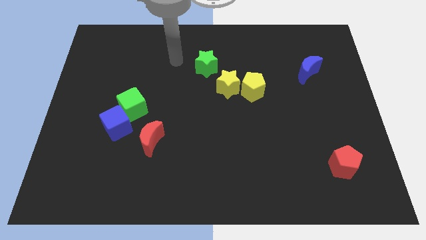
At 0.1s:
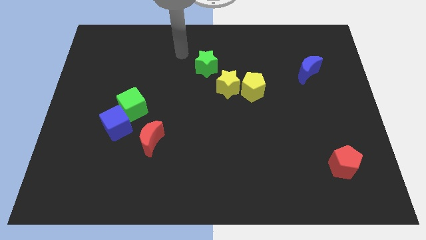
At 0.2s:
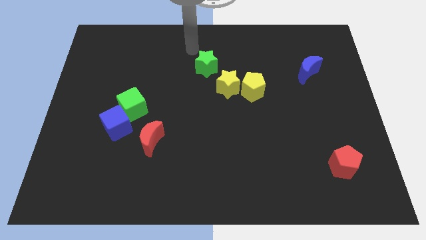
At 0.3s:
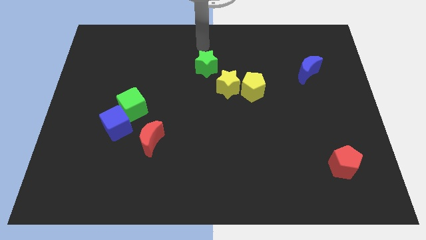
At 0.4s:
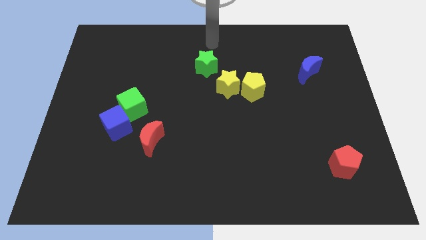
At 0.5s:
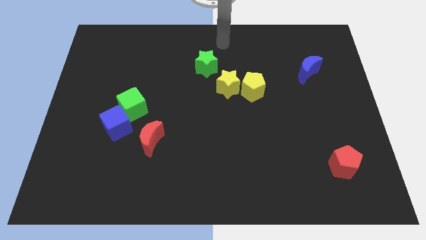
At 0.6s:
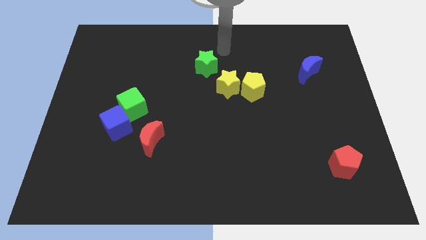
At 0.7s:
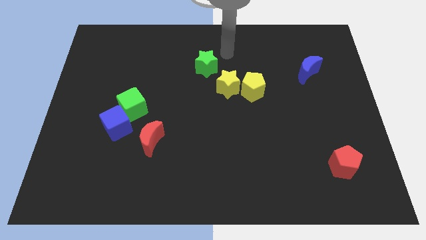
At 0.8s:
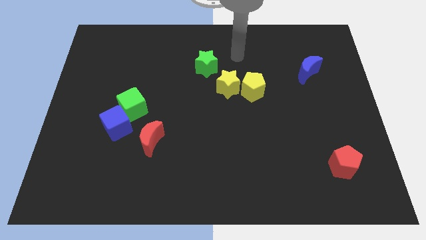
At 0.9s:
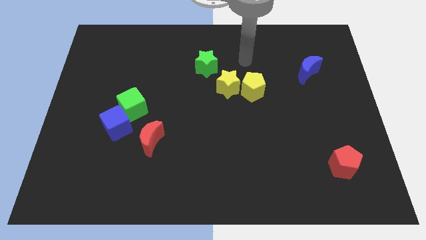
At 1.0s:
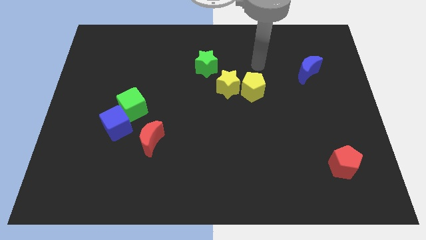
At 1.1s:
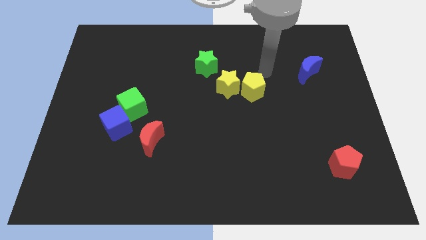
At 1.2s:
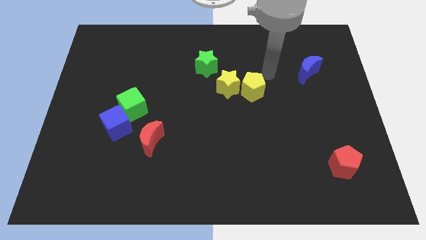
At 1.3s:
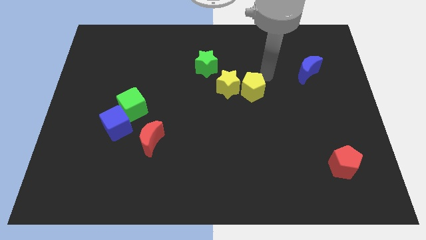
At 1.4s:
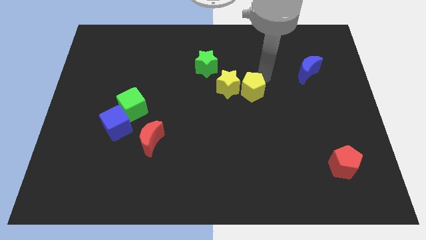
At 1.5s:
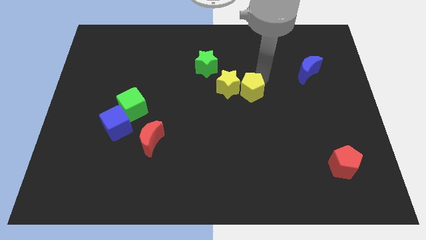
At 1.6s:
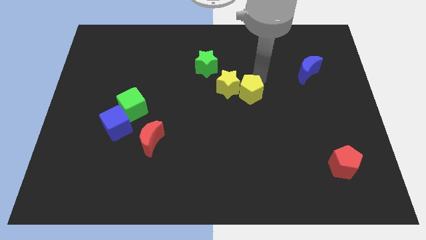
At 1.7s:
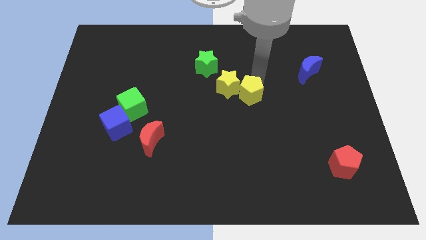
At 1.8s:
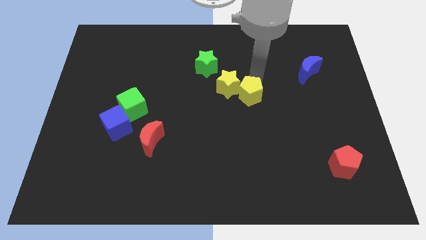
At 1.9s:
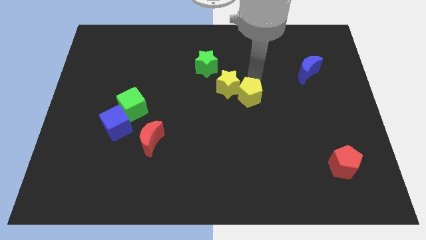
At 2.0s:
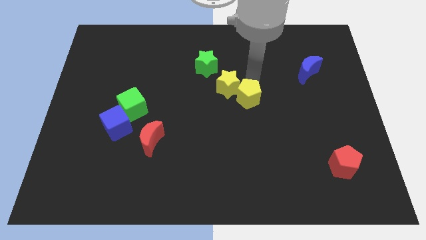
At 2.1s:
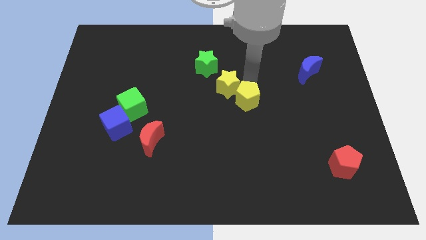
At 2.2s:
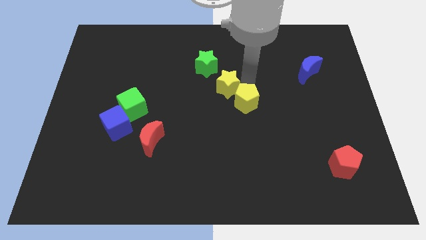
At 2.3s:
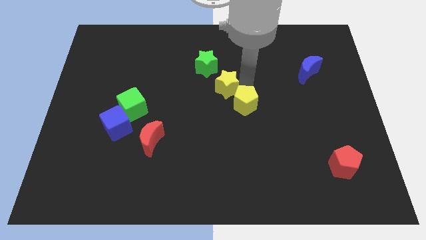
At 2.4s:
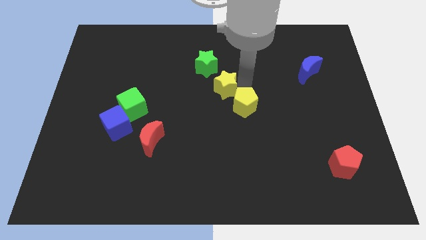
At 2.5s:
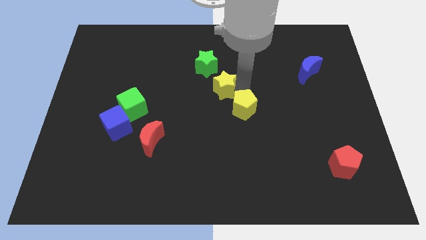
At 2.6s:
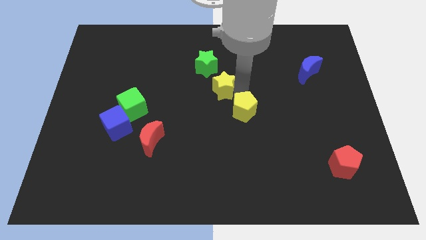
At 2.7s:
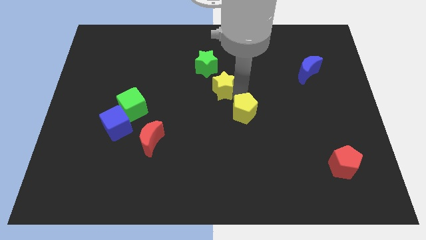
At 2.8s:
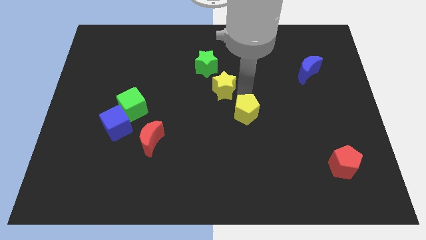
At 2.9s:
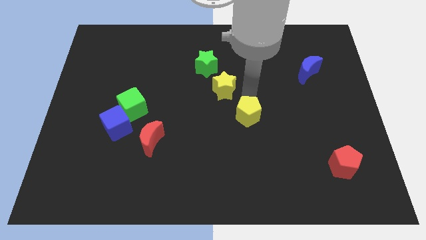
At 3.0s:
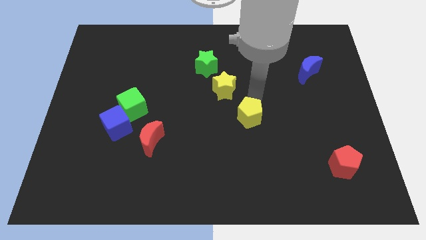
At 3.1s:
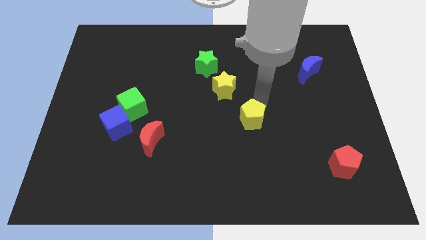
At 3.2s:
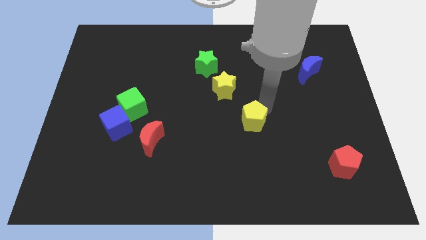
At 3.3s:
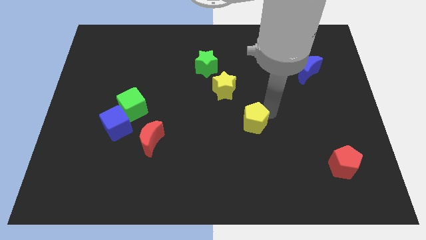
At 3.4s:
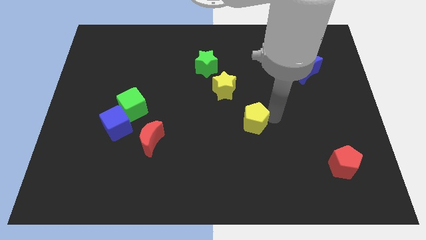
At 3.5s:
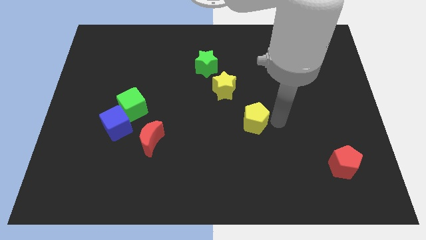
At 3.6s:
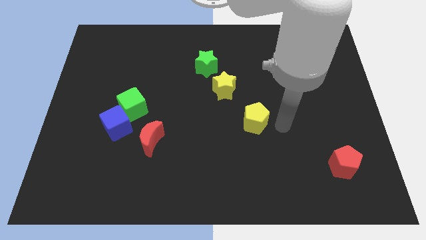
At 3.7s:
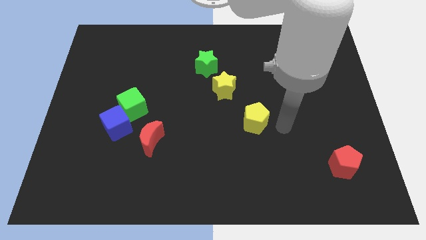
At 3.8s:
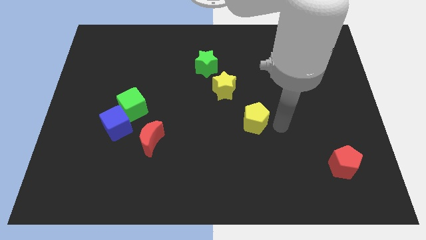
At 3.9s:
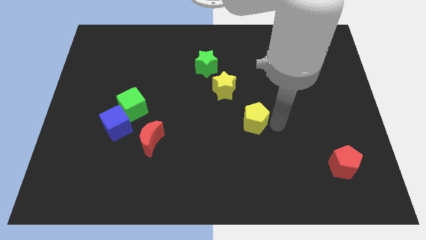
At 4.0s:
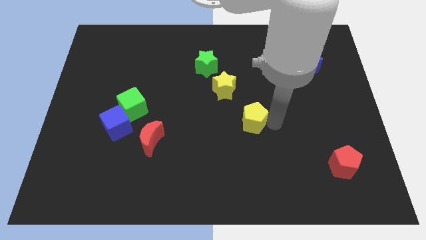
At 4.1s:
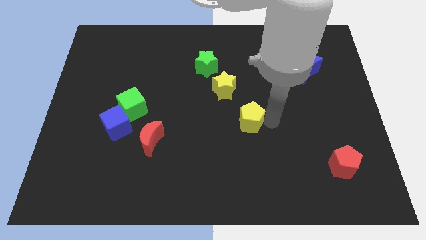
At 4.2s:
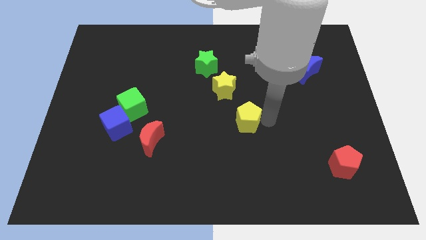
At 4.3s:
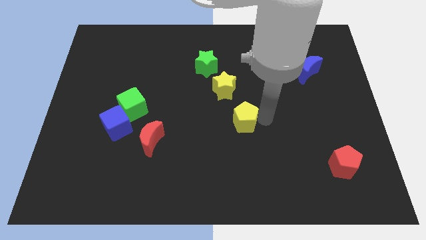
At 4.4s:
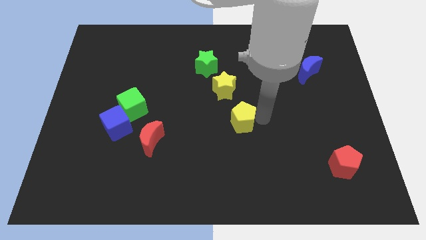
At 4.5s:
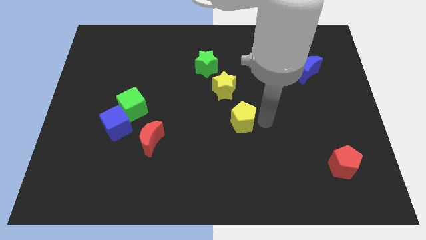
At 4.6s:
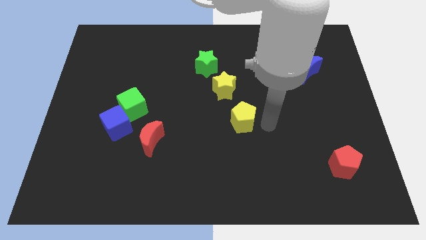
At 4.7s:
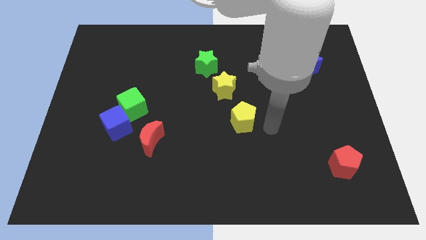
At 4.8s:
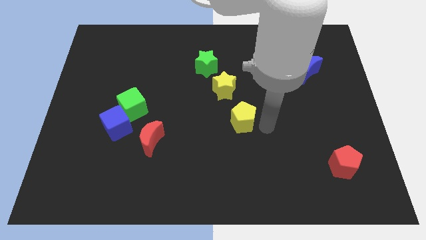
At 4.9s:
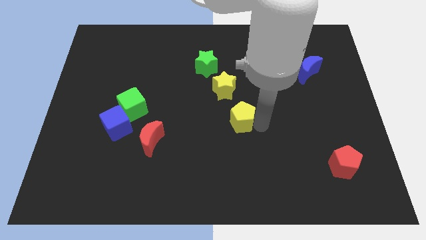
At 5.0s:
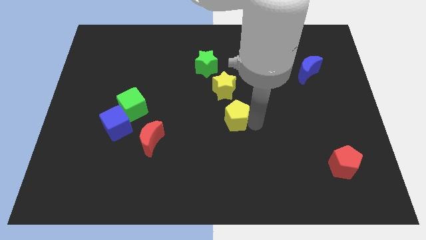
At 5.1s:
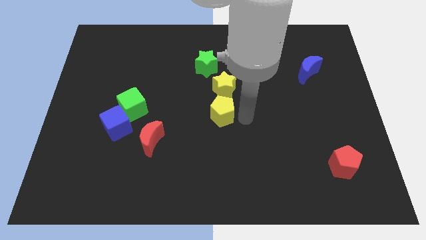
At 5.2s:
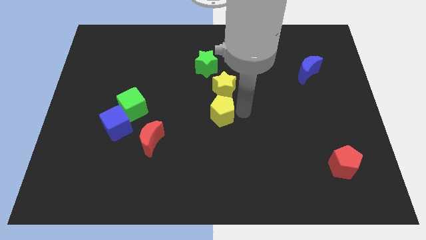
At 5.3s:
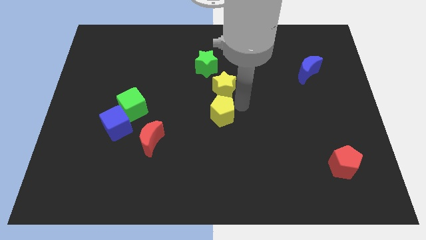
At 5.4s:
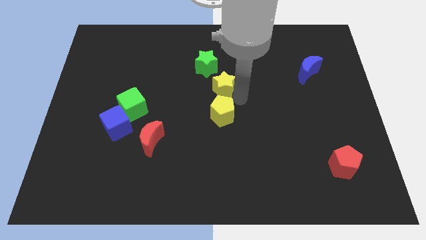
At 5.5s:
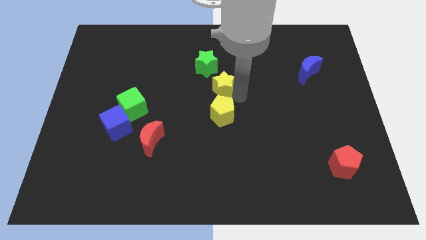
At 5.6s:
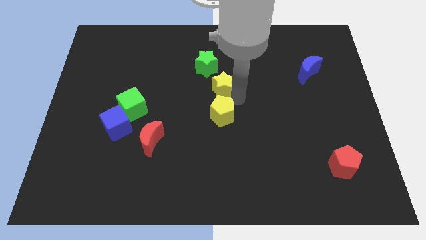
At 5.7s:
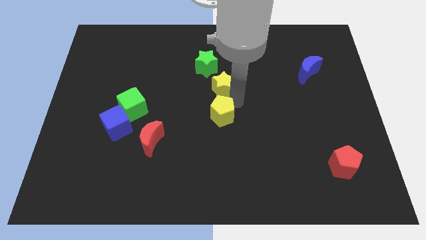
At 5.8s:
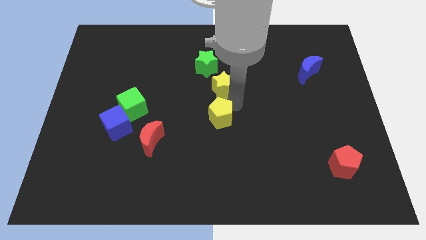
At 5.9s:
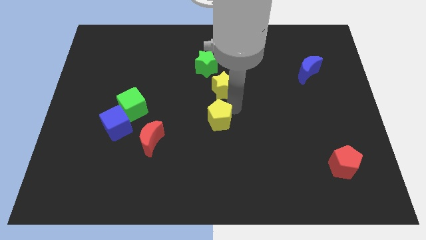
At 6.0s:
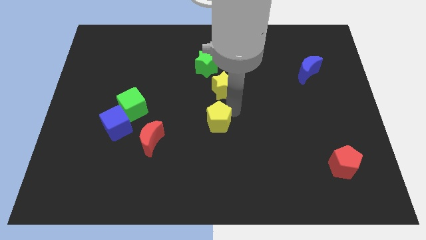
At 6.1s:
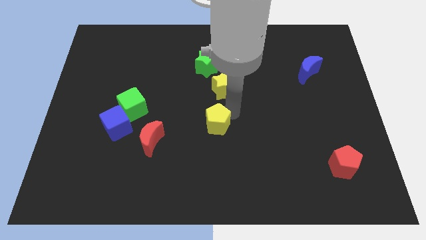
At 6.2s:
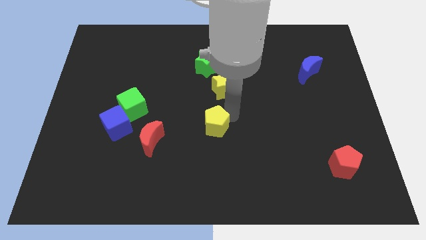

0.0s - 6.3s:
move the yellow pentagon right of the red moon
